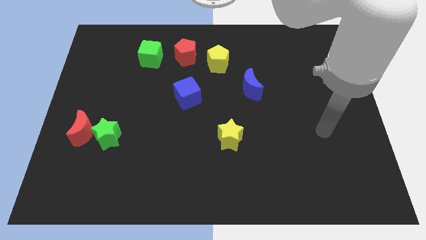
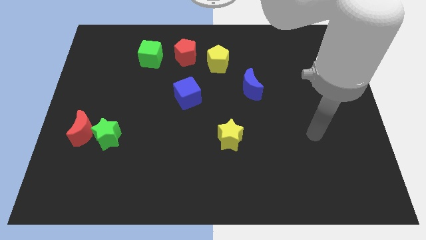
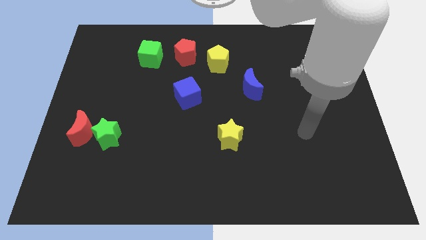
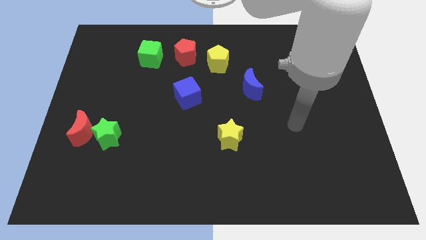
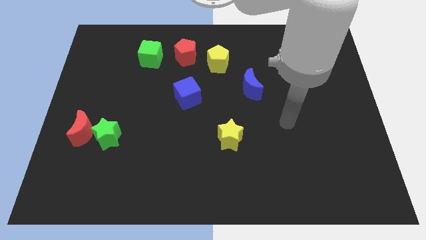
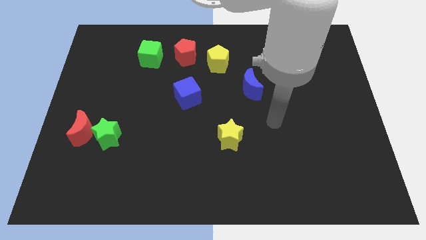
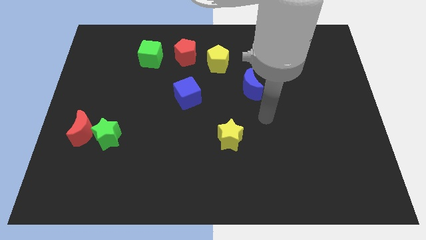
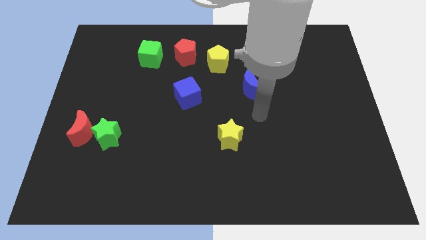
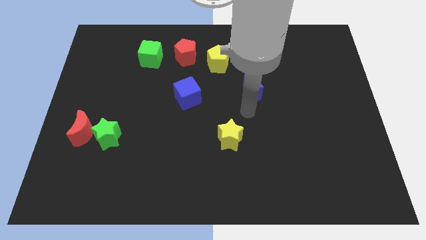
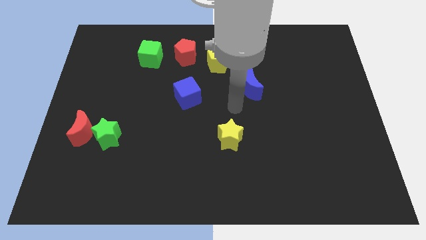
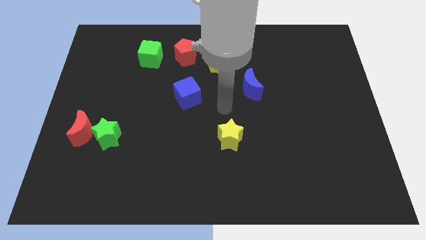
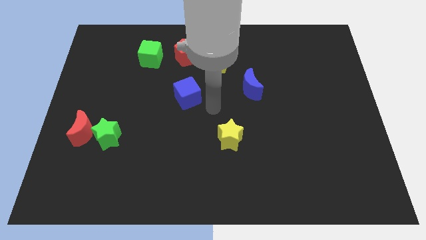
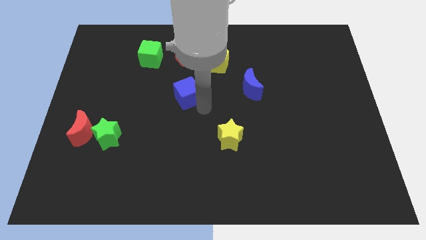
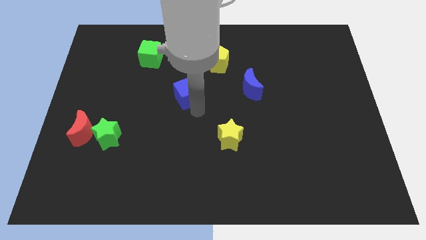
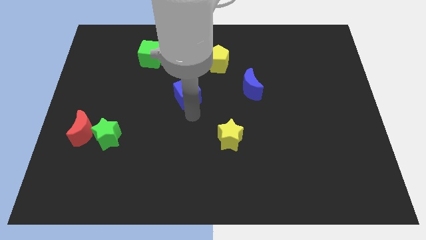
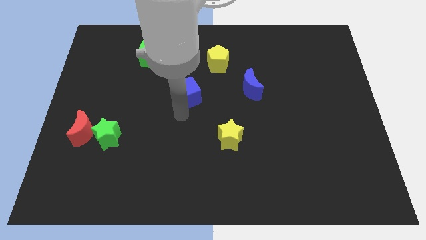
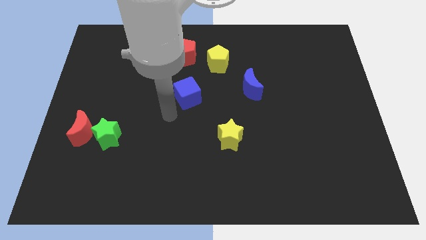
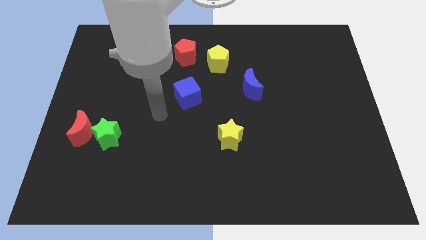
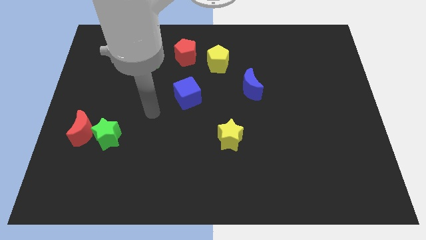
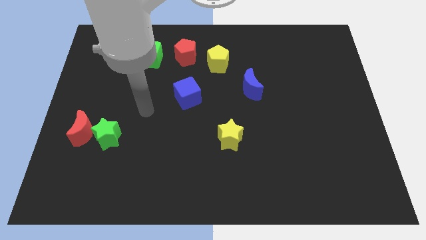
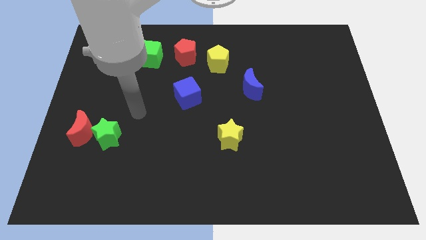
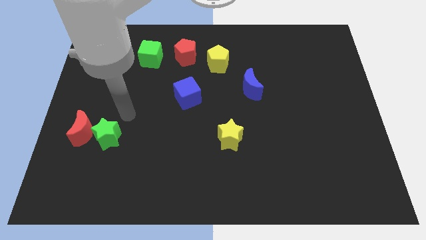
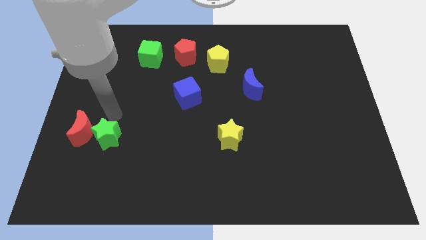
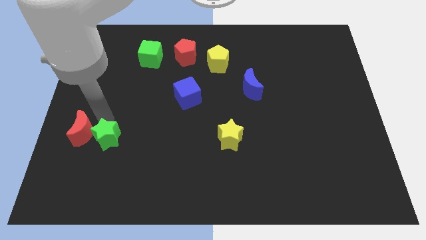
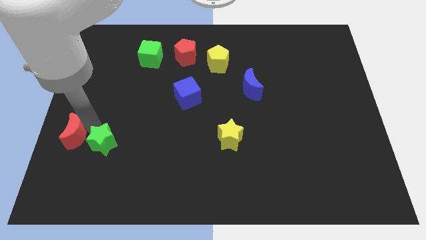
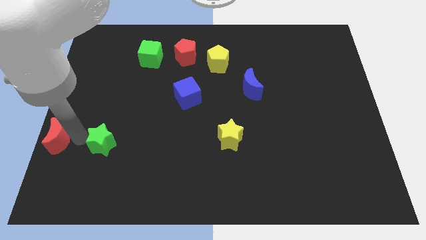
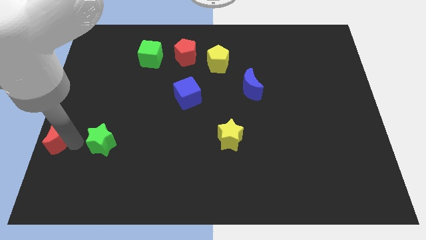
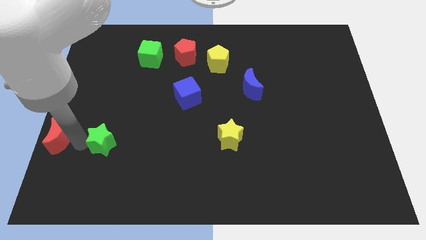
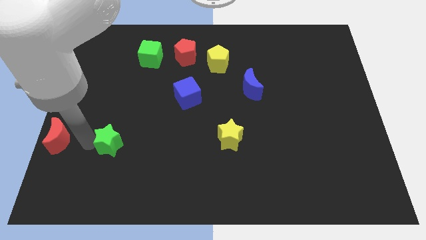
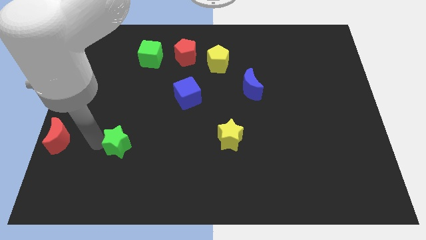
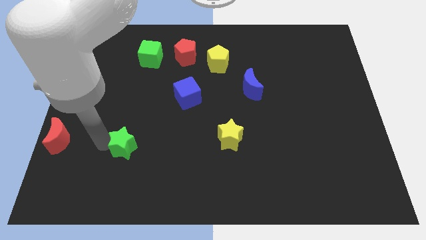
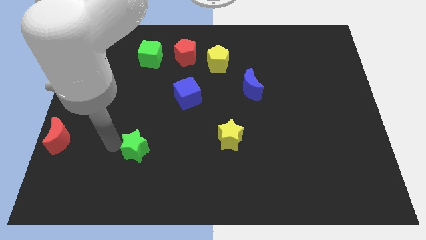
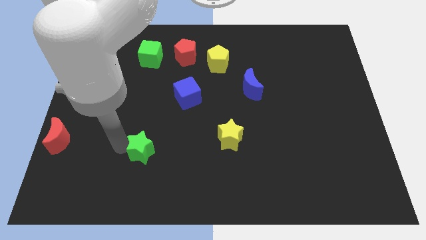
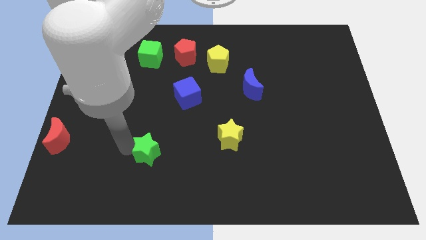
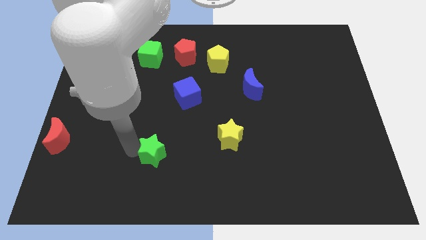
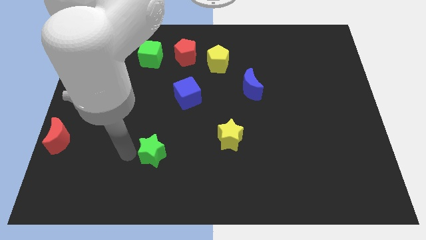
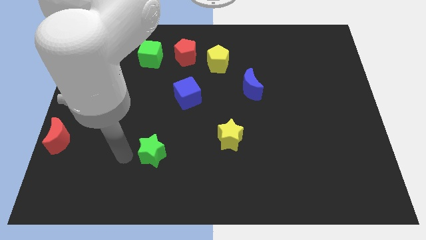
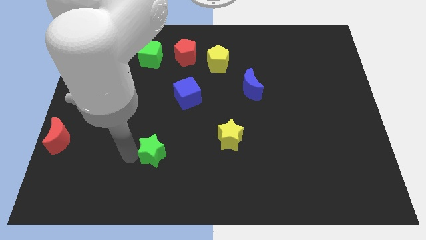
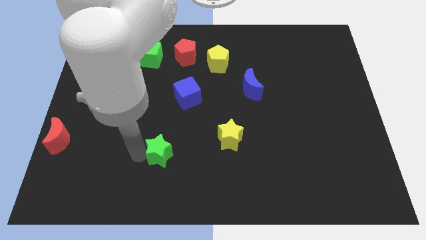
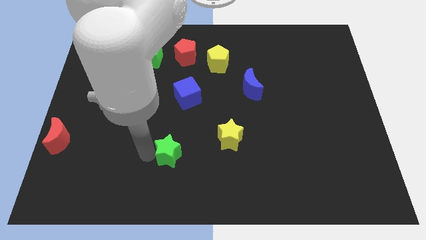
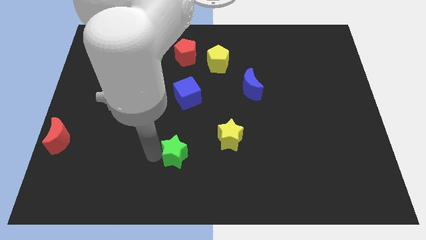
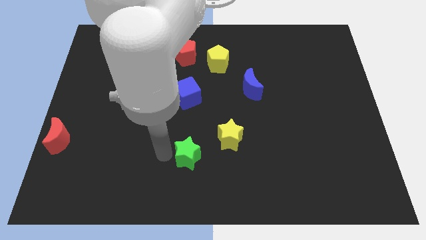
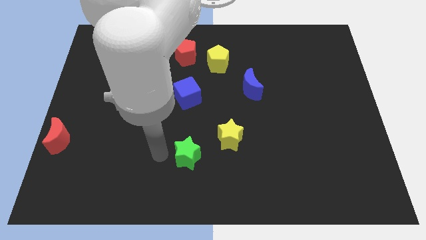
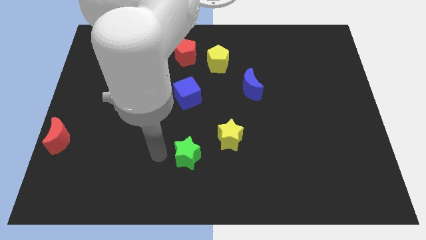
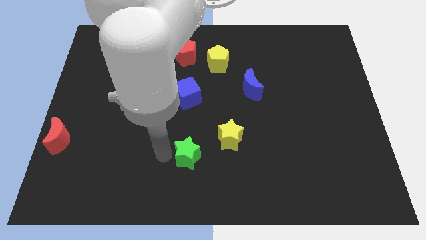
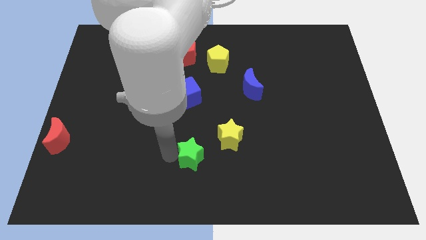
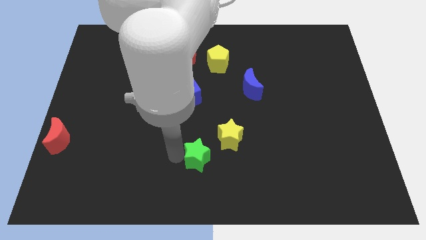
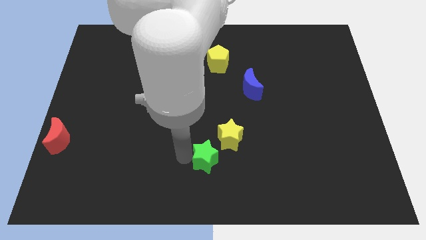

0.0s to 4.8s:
move the green star to the right

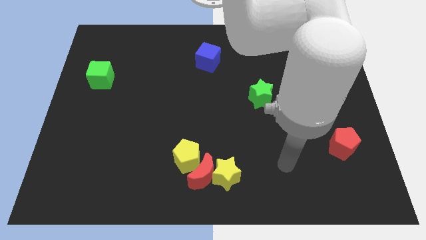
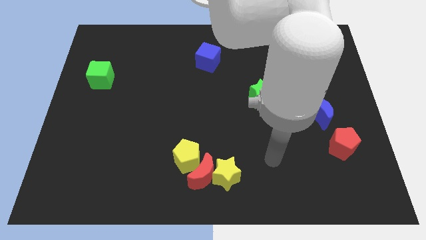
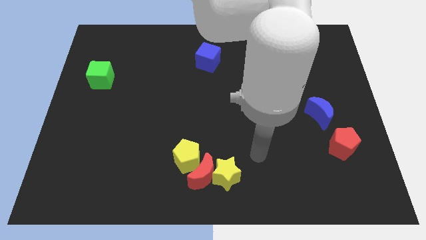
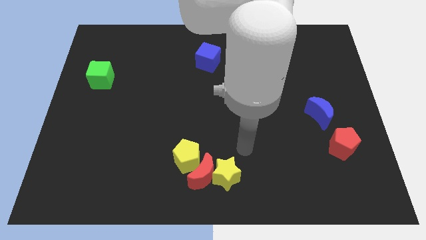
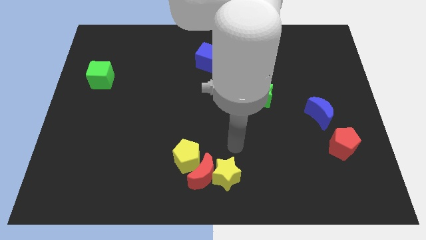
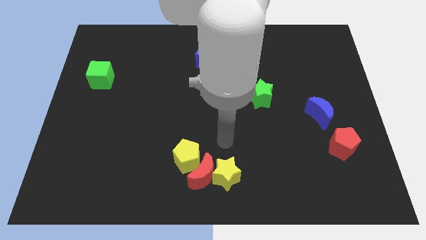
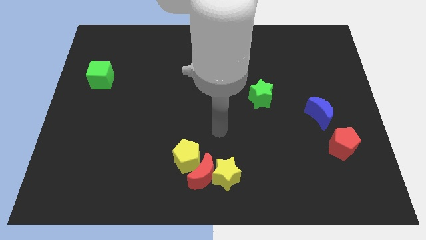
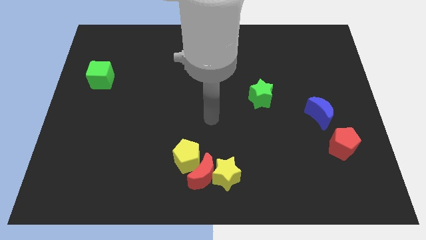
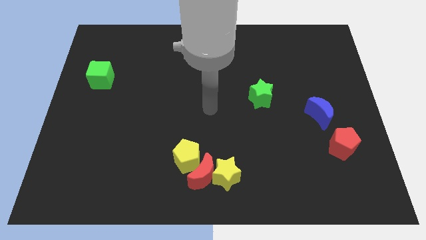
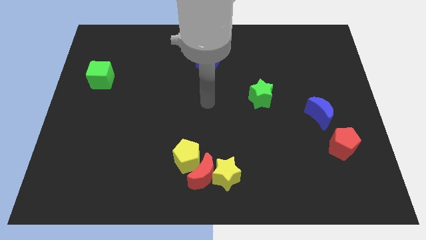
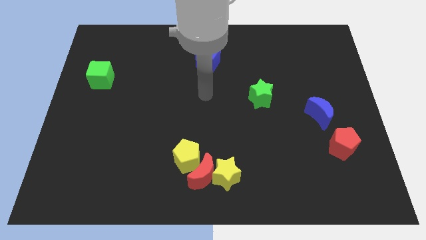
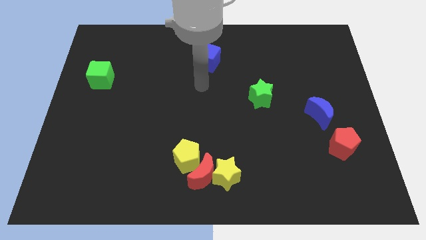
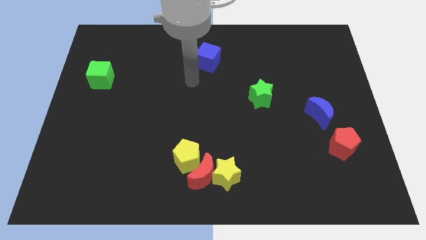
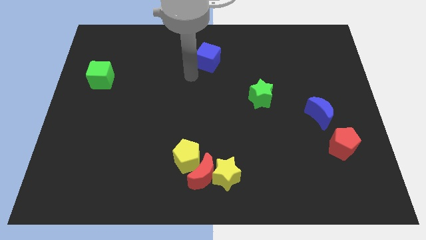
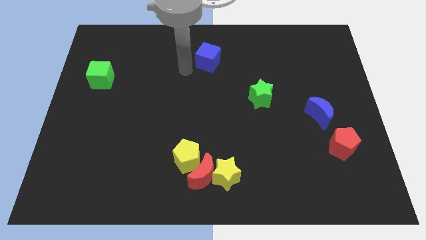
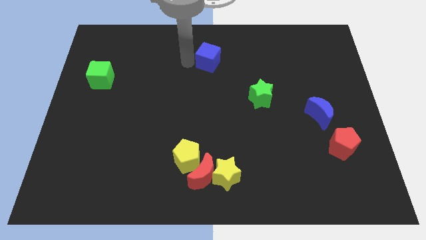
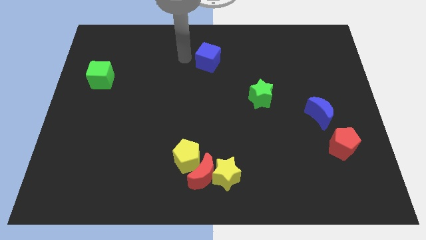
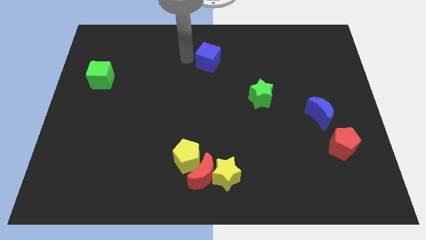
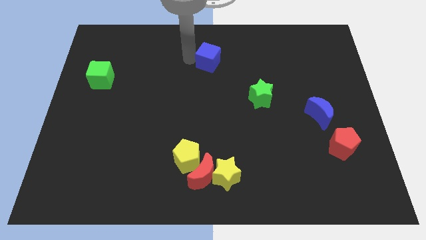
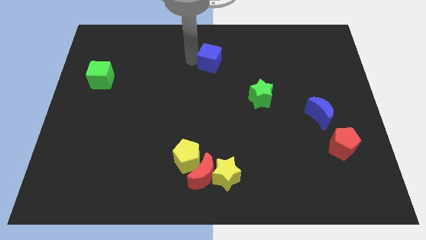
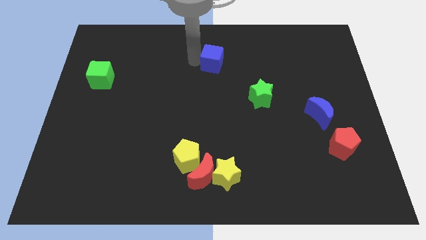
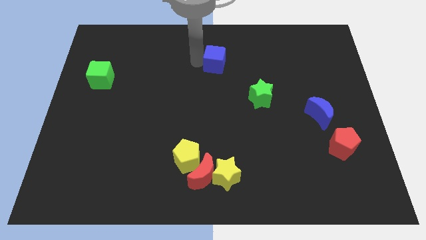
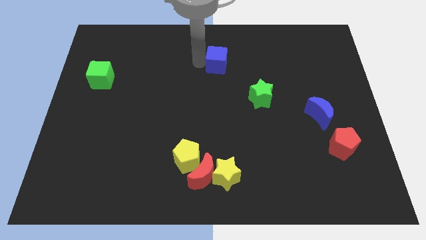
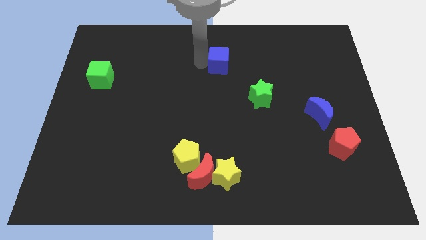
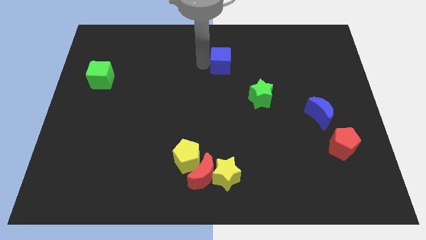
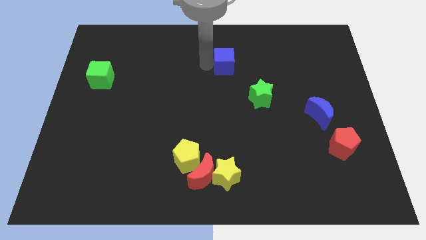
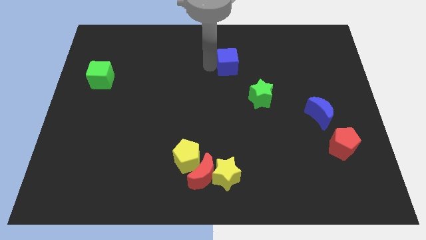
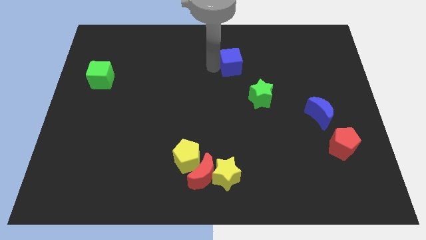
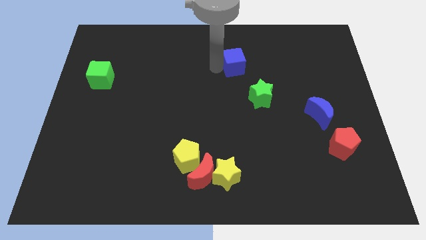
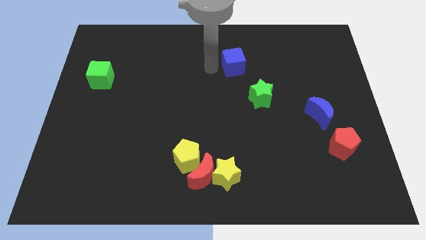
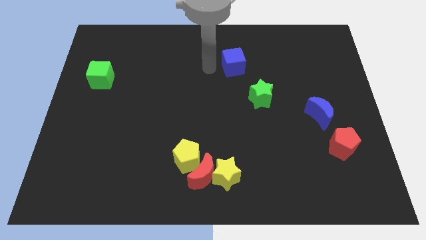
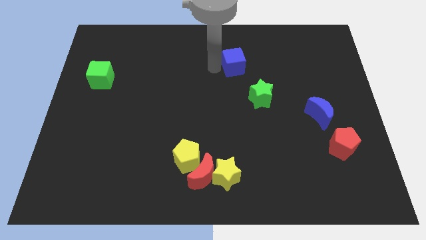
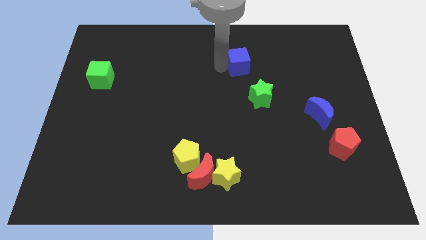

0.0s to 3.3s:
move the blue cube somewhat to the right
